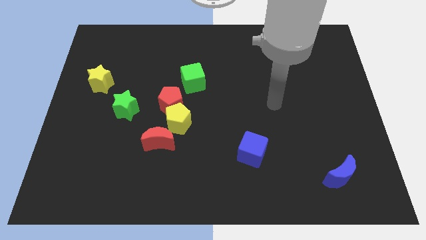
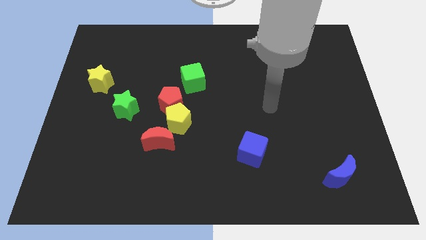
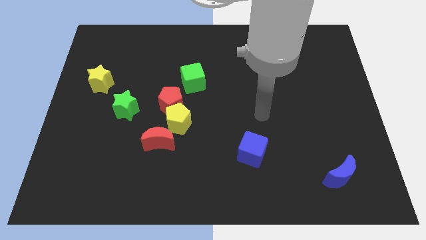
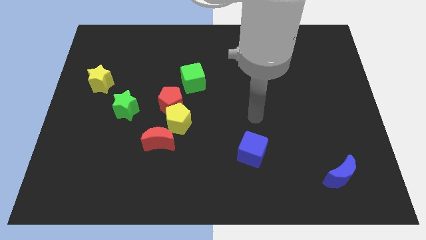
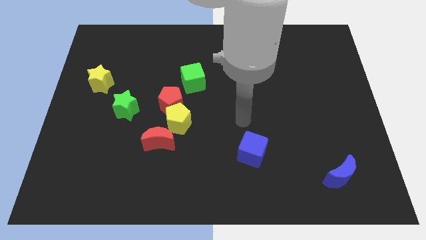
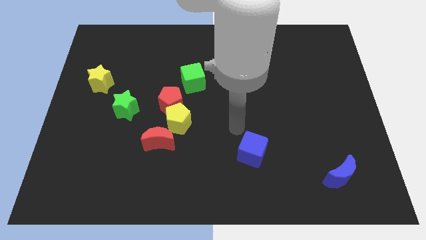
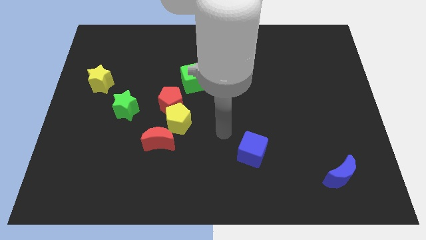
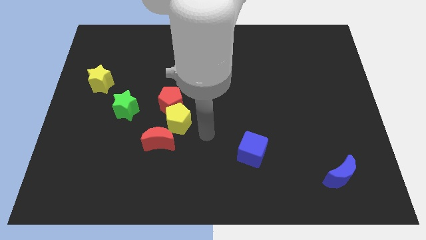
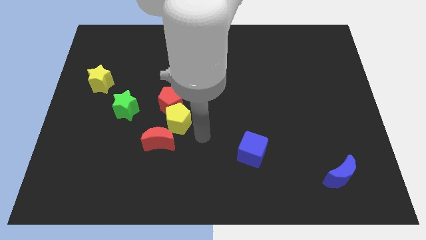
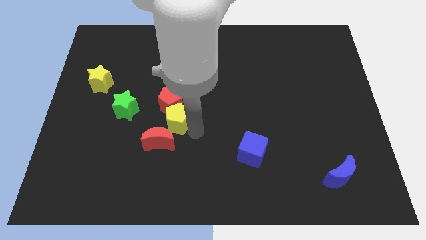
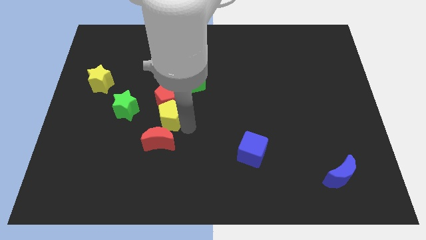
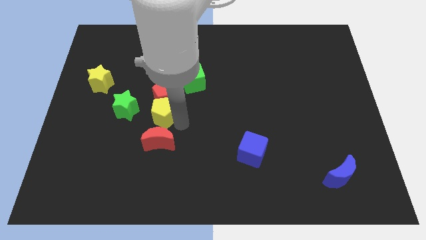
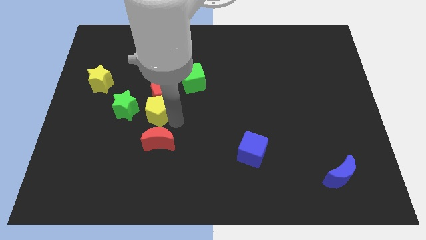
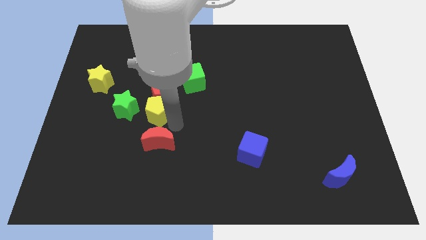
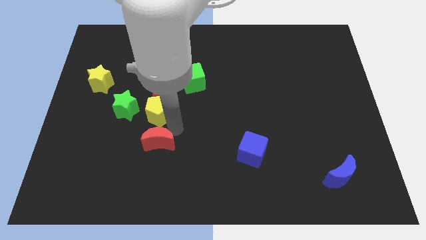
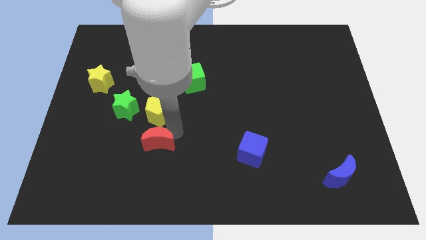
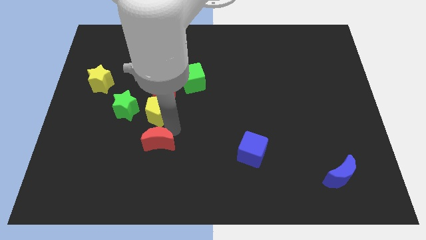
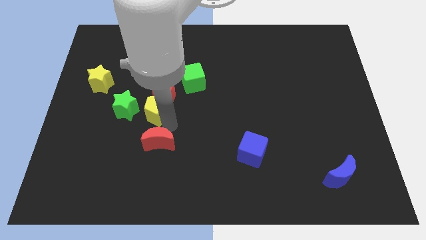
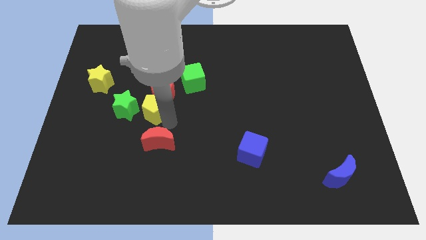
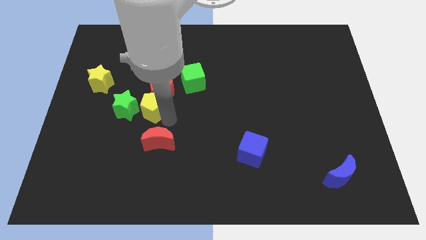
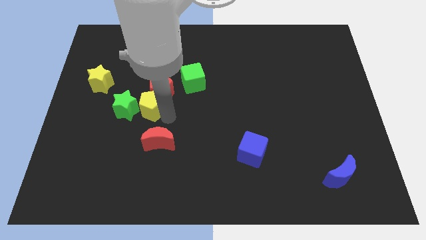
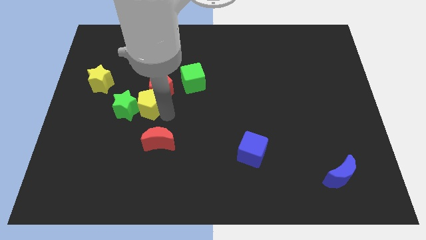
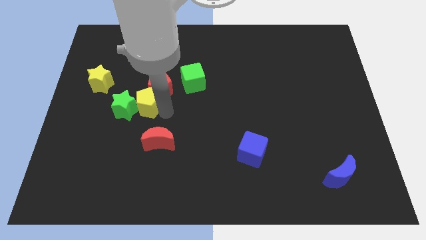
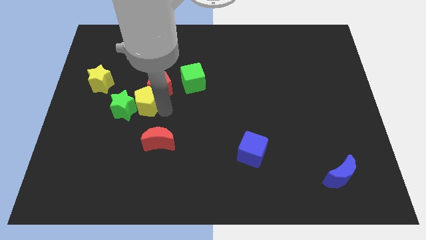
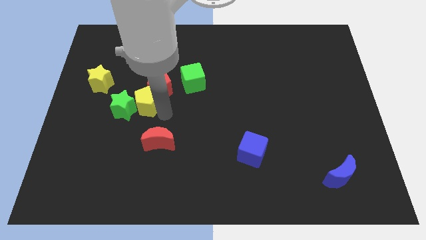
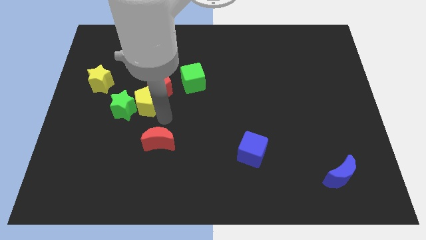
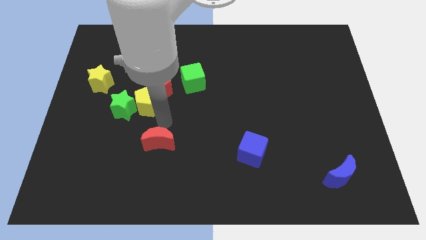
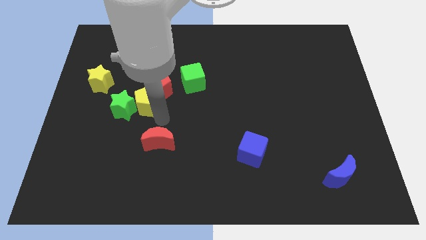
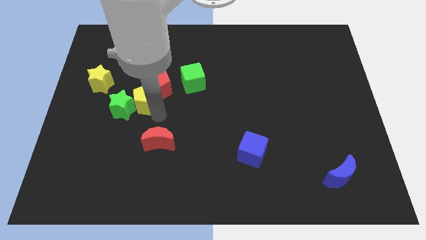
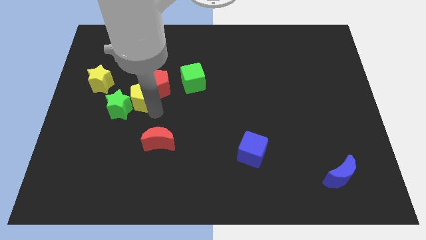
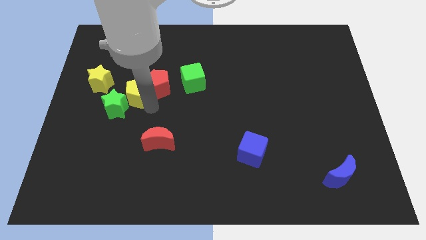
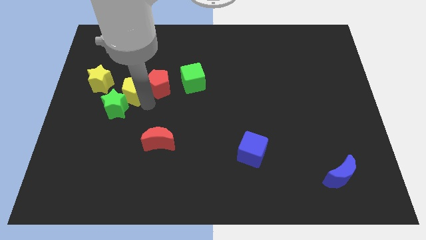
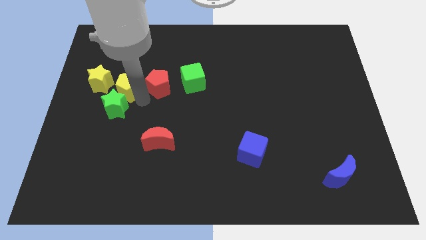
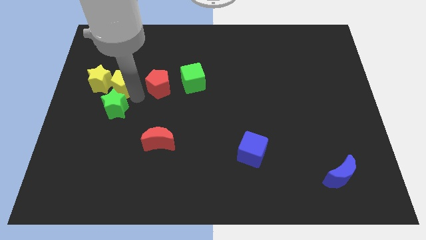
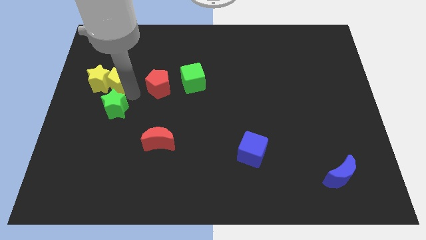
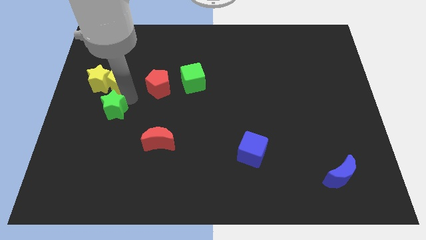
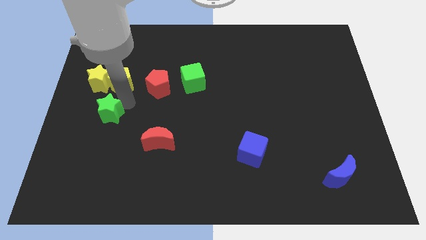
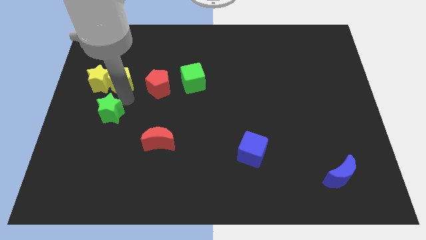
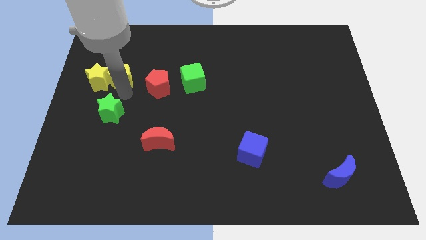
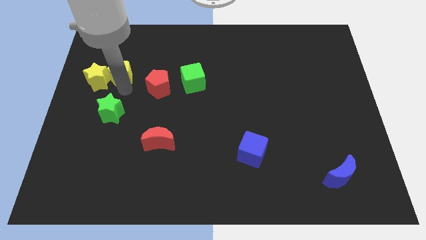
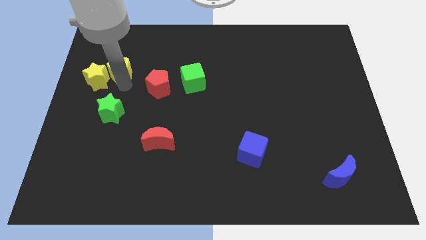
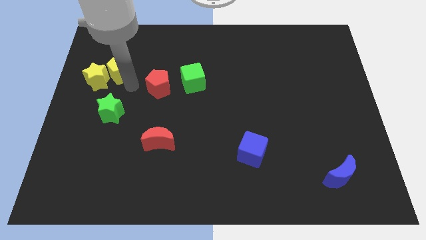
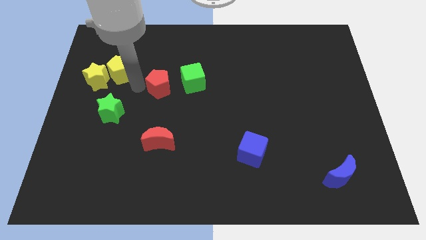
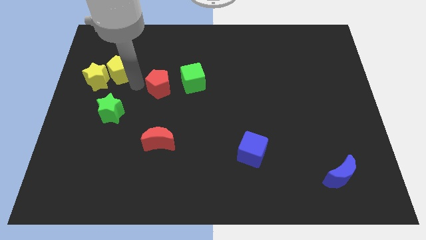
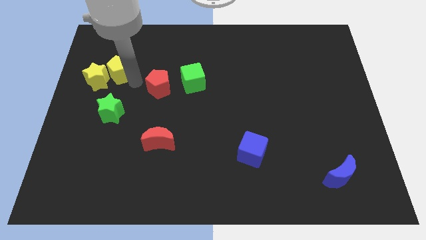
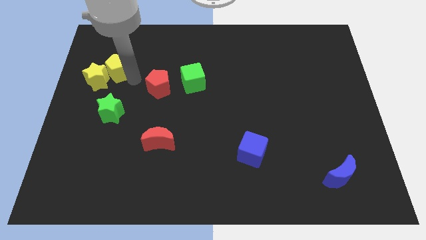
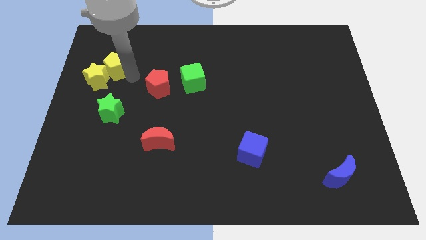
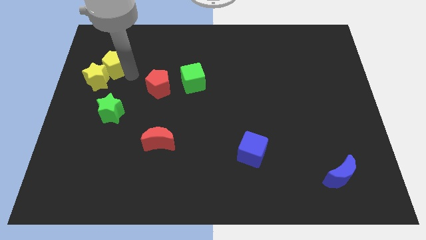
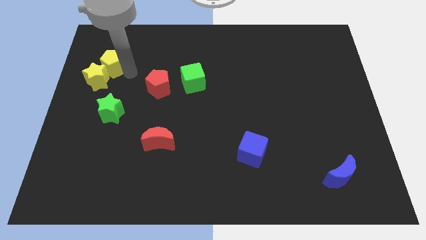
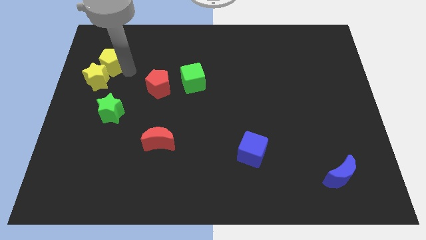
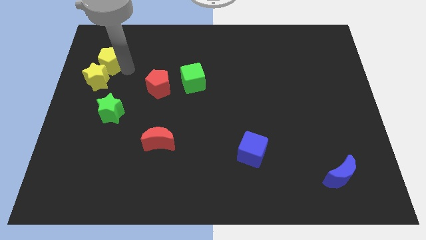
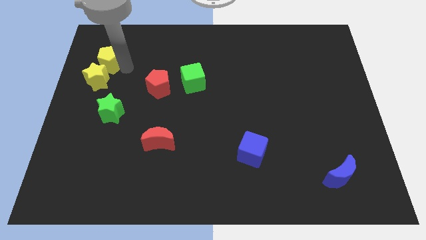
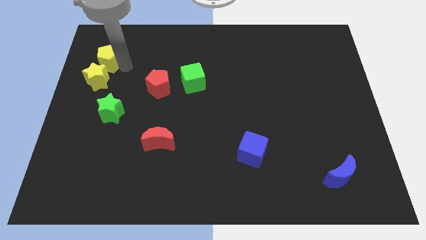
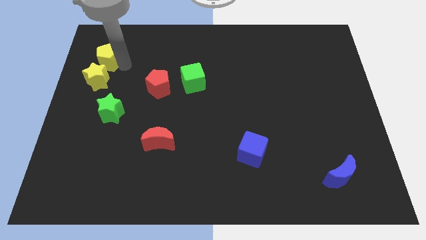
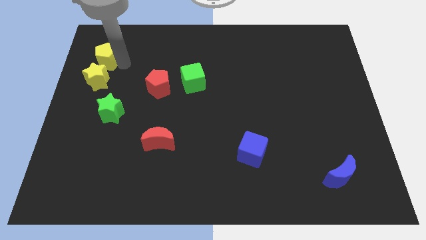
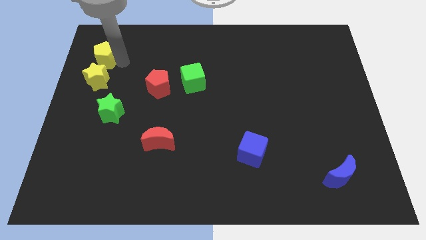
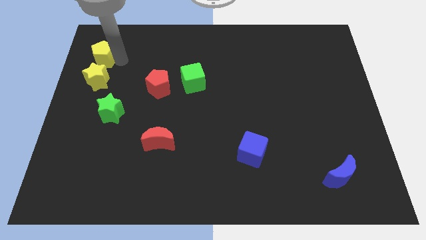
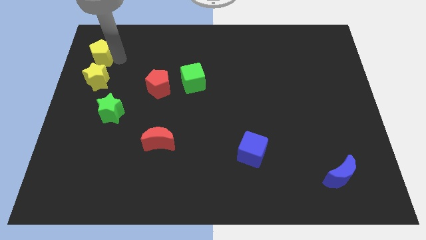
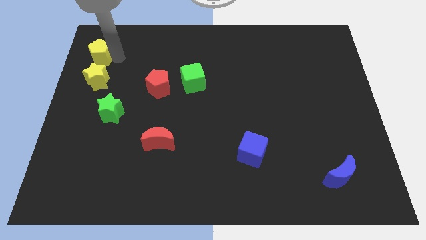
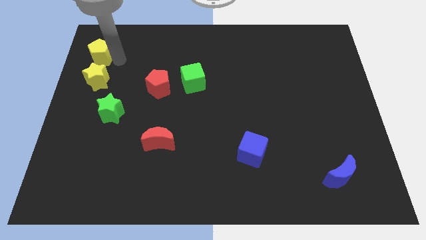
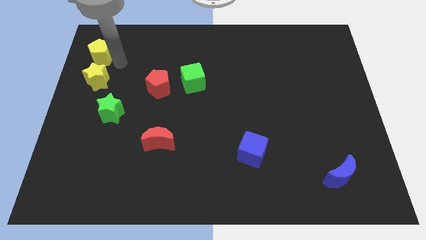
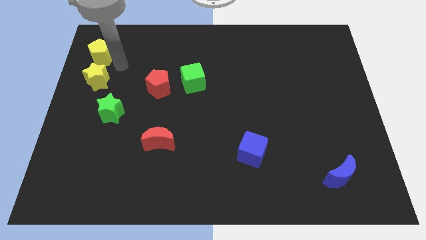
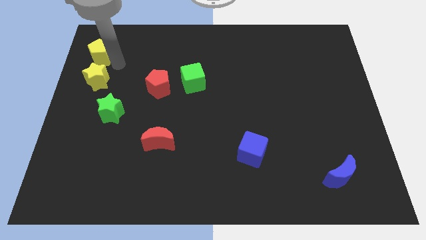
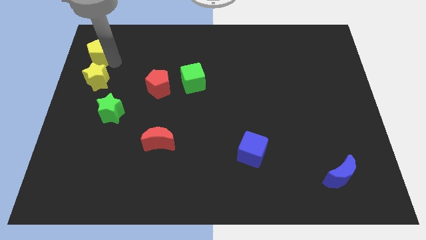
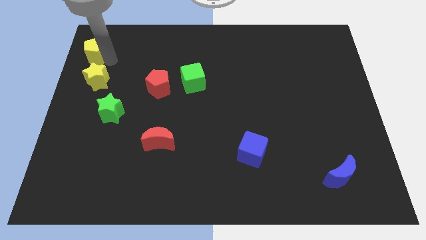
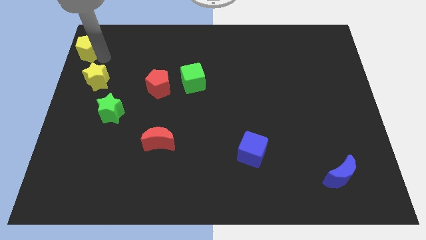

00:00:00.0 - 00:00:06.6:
move the yellow pentagon to the upper left corner
